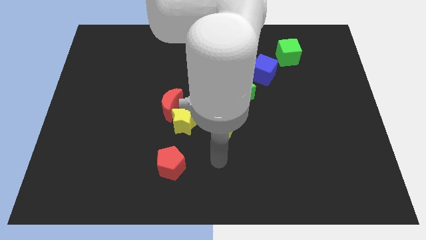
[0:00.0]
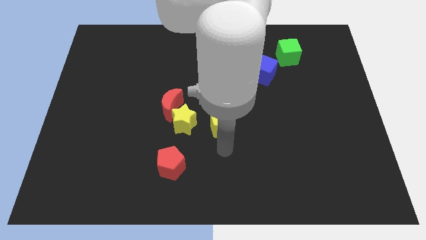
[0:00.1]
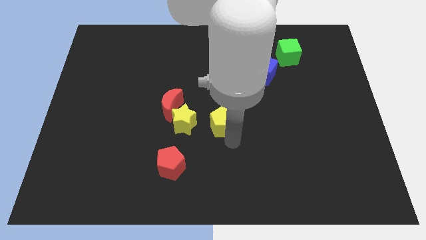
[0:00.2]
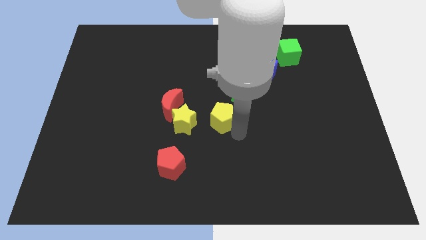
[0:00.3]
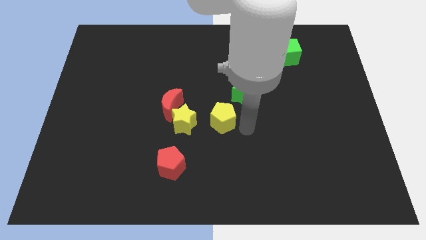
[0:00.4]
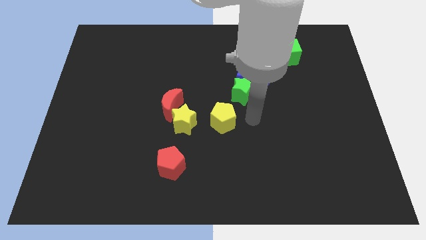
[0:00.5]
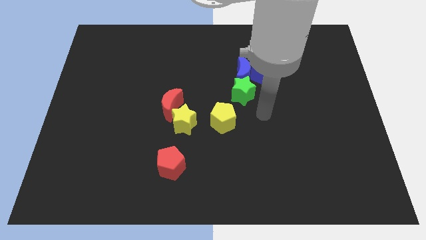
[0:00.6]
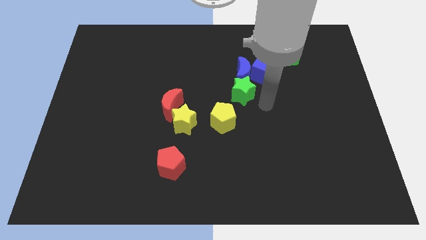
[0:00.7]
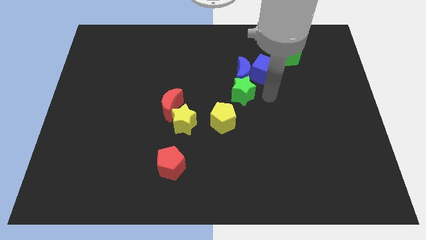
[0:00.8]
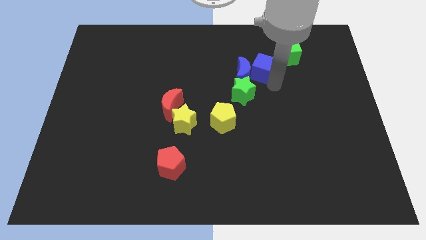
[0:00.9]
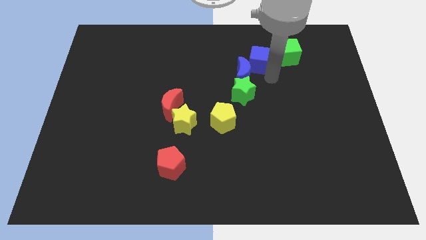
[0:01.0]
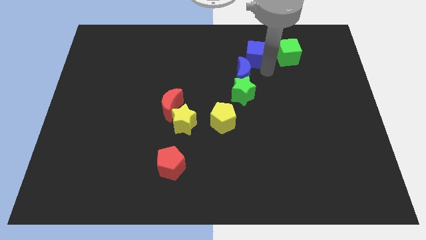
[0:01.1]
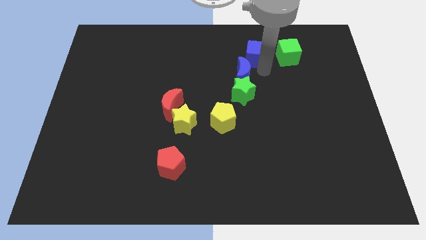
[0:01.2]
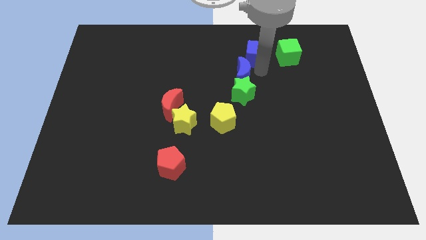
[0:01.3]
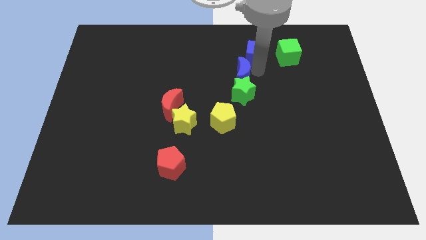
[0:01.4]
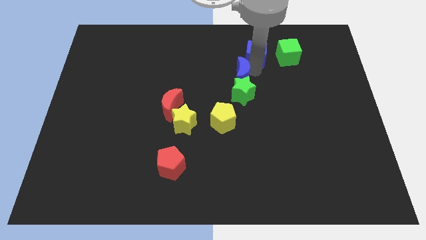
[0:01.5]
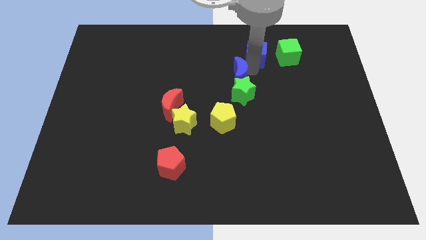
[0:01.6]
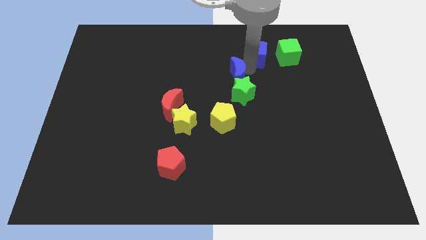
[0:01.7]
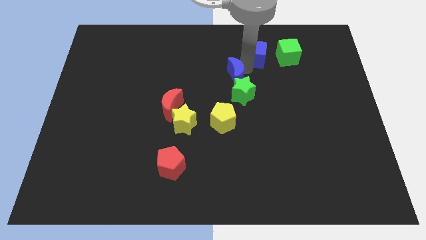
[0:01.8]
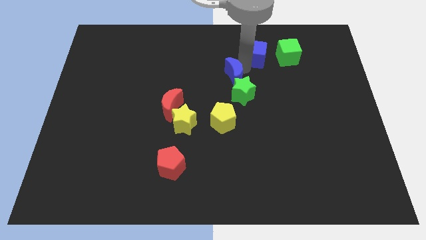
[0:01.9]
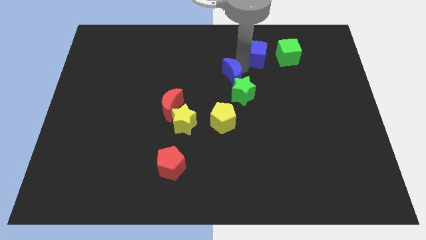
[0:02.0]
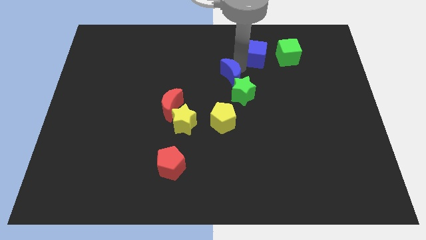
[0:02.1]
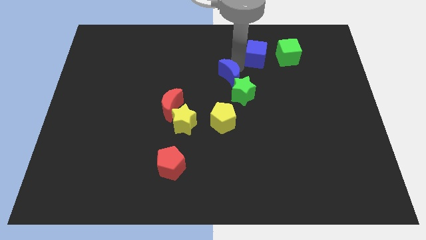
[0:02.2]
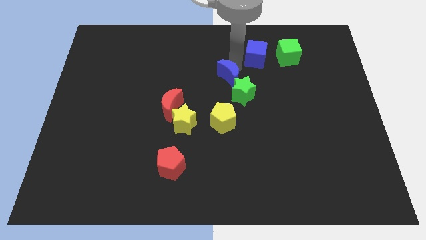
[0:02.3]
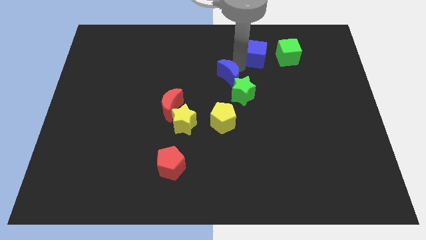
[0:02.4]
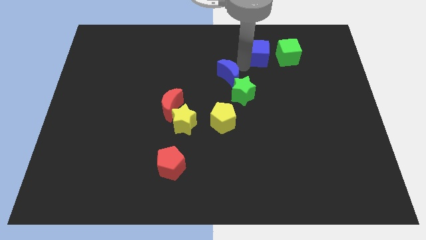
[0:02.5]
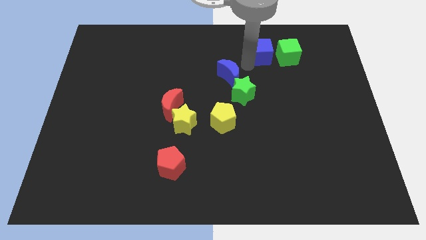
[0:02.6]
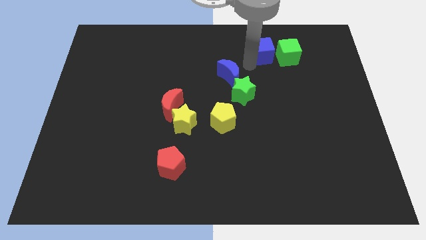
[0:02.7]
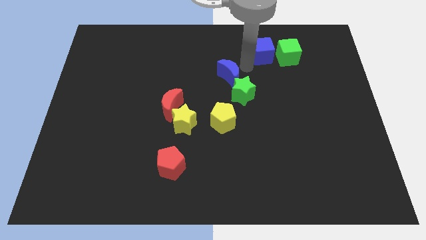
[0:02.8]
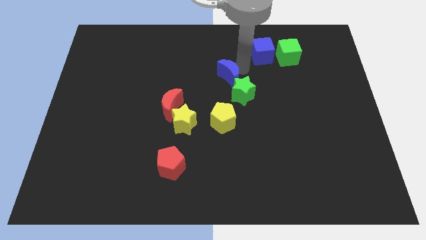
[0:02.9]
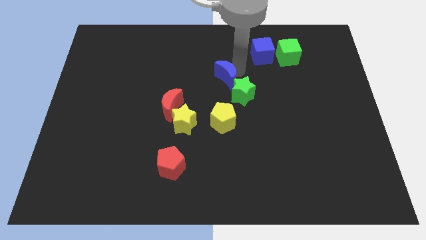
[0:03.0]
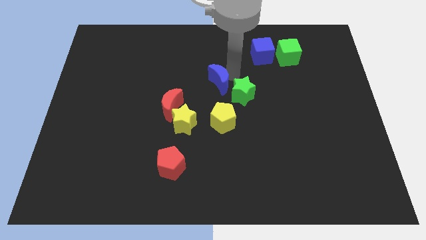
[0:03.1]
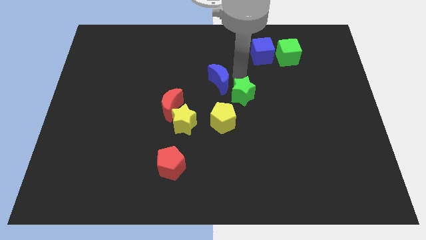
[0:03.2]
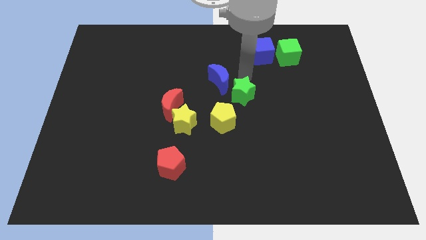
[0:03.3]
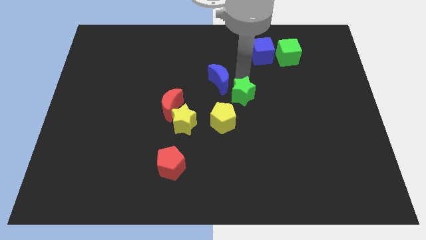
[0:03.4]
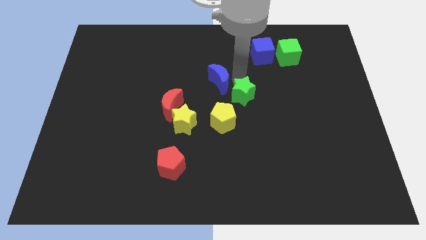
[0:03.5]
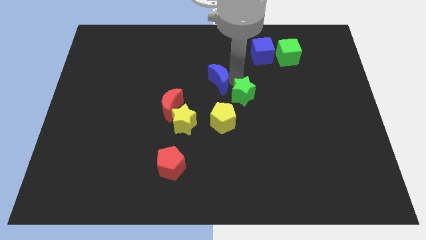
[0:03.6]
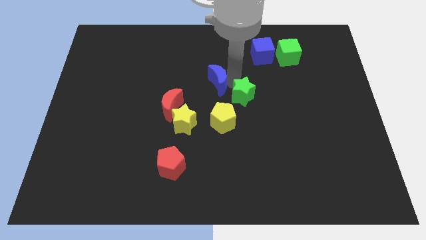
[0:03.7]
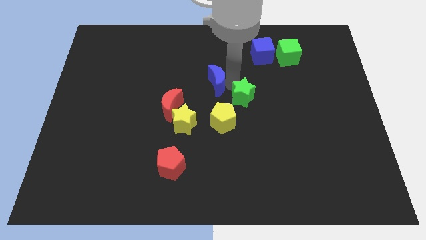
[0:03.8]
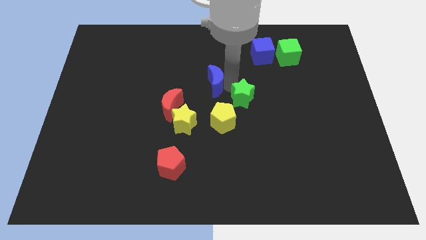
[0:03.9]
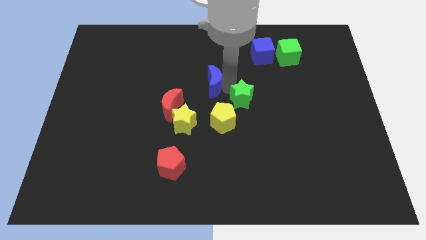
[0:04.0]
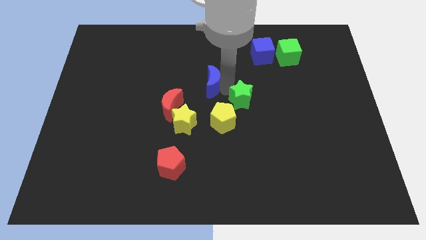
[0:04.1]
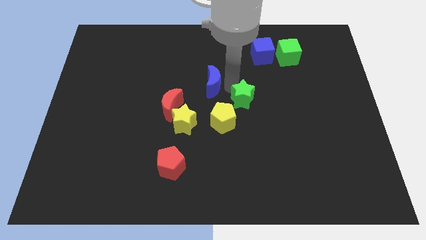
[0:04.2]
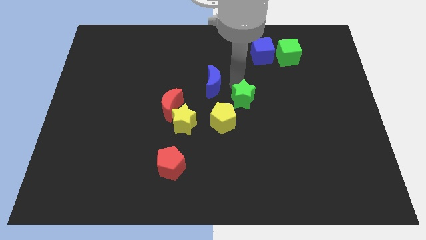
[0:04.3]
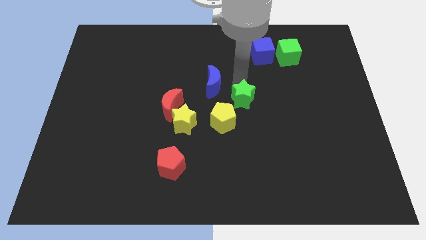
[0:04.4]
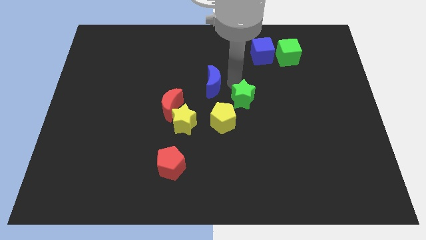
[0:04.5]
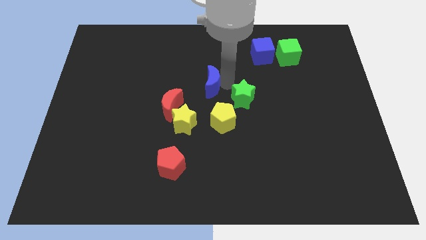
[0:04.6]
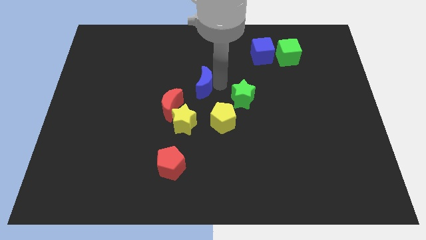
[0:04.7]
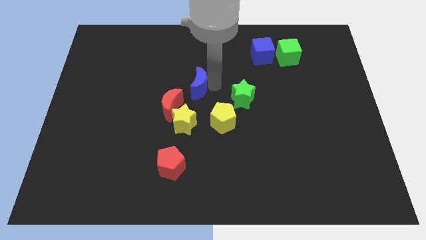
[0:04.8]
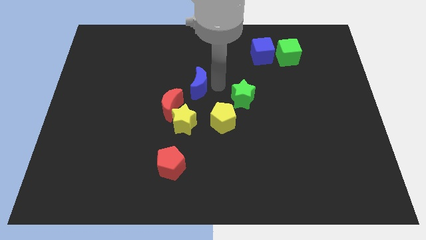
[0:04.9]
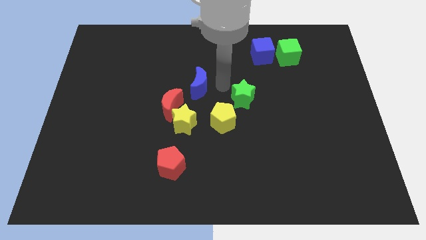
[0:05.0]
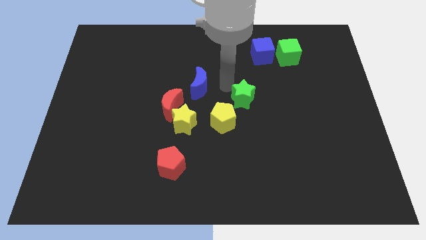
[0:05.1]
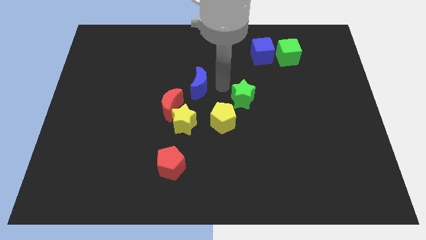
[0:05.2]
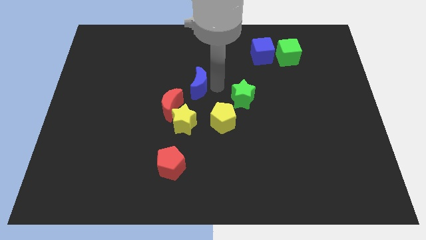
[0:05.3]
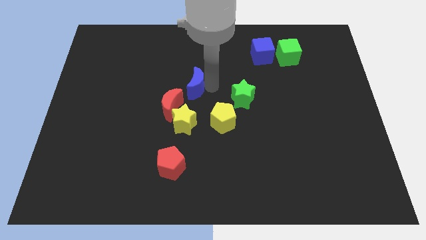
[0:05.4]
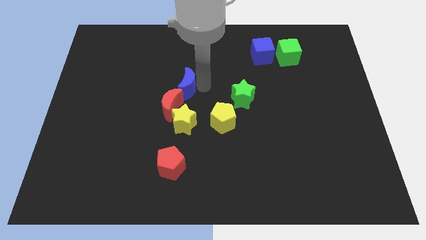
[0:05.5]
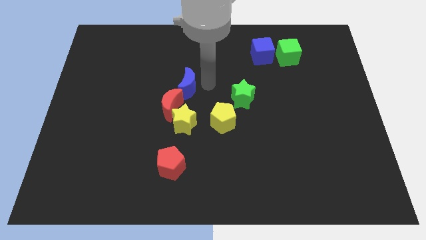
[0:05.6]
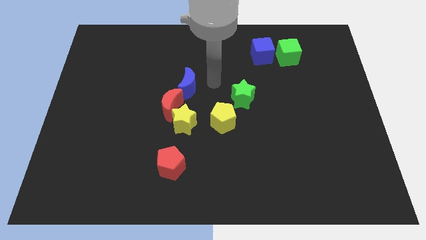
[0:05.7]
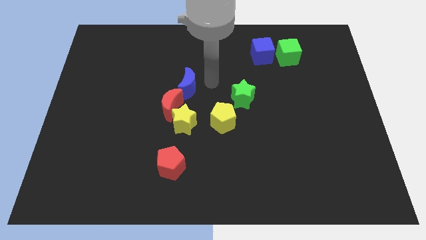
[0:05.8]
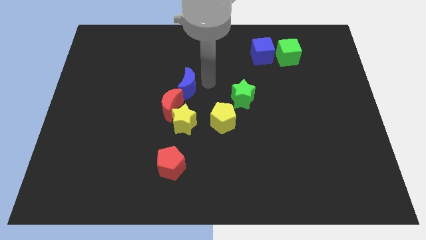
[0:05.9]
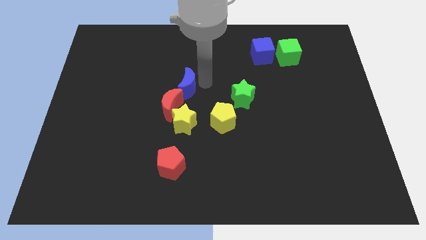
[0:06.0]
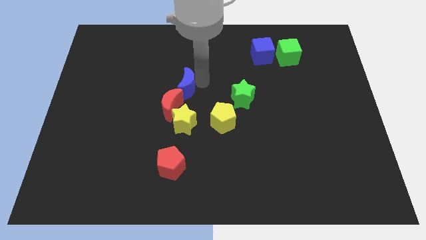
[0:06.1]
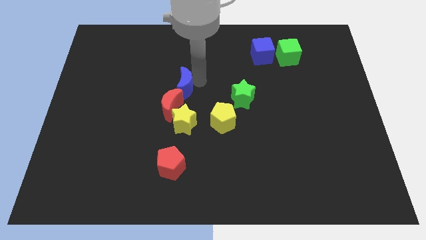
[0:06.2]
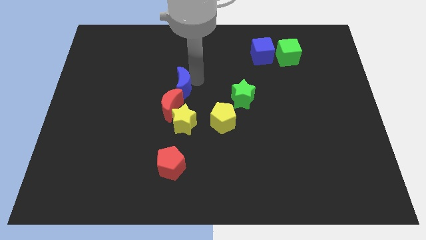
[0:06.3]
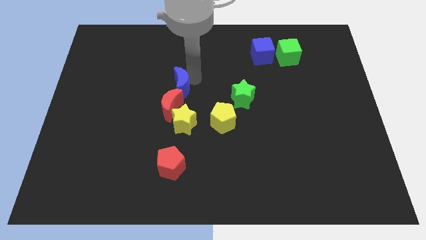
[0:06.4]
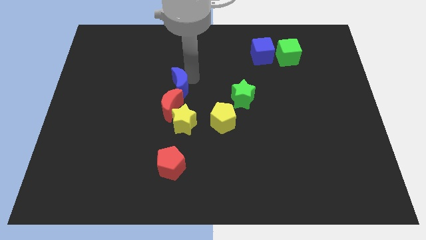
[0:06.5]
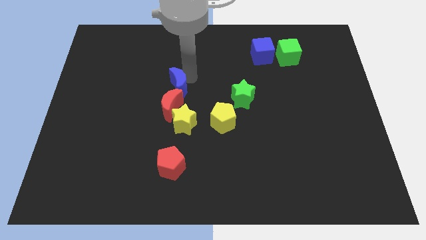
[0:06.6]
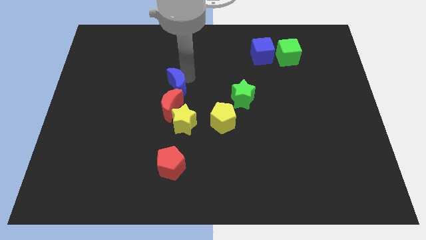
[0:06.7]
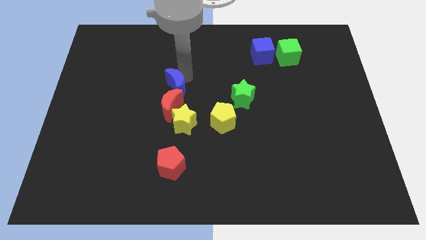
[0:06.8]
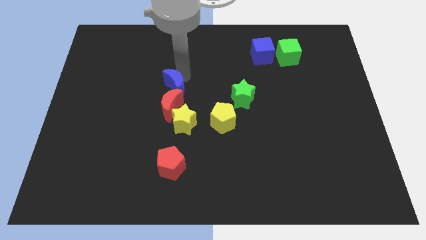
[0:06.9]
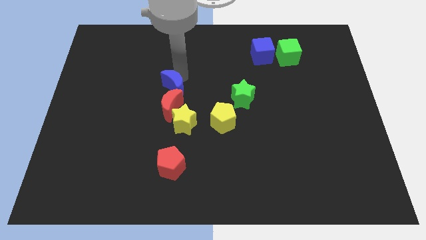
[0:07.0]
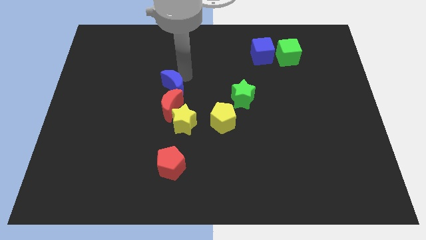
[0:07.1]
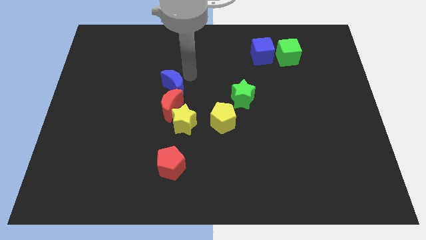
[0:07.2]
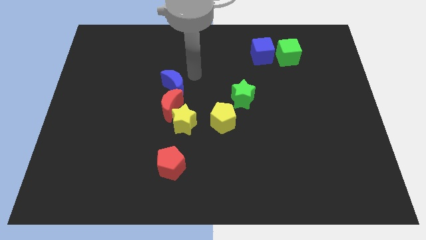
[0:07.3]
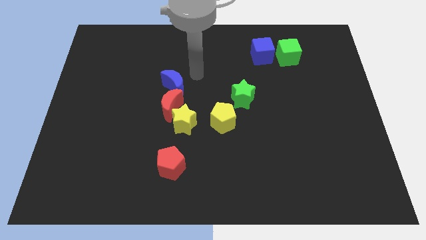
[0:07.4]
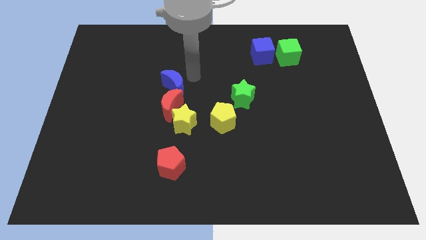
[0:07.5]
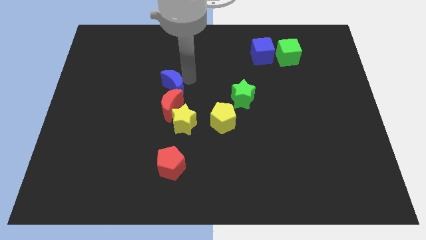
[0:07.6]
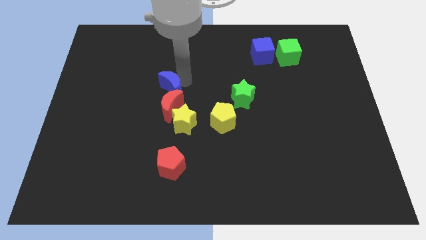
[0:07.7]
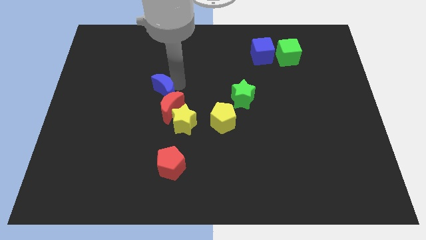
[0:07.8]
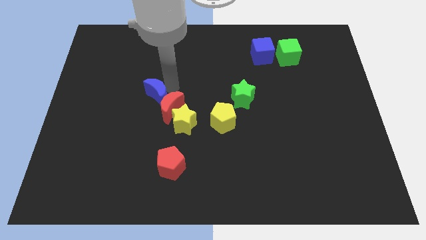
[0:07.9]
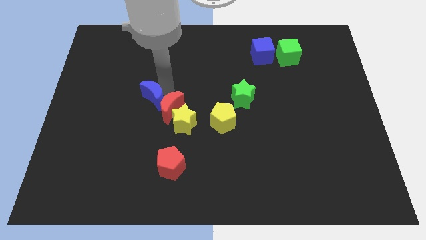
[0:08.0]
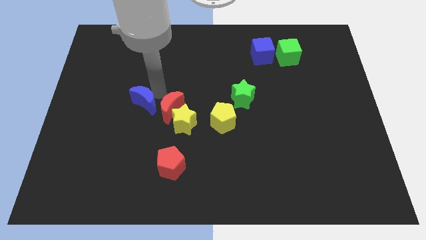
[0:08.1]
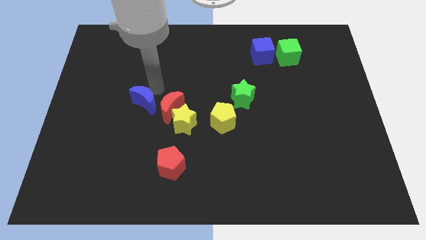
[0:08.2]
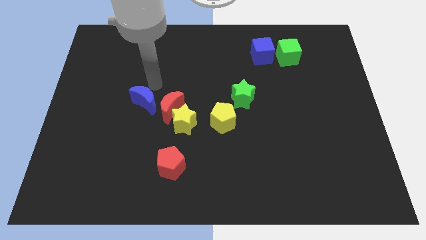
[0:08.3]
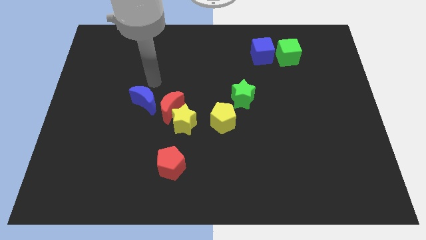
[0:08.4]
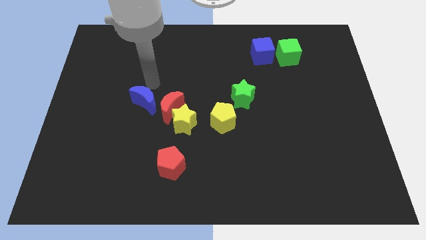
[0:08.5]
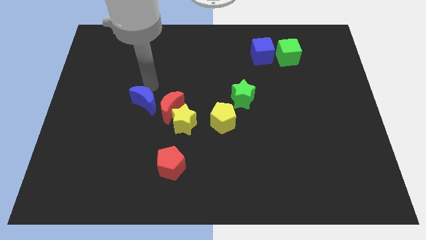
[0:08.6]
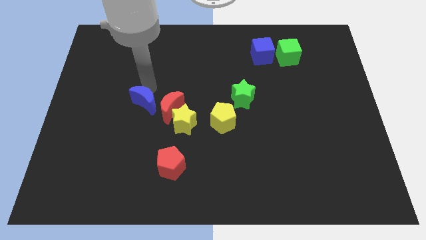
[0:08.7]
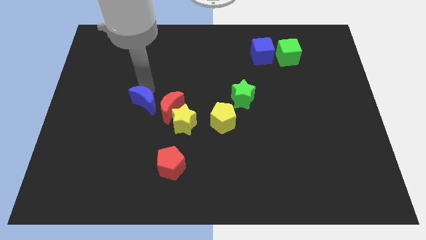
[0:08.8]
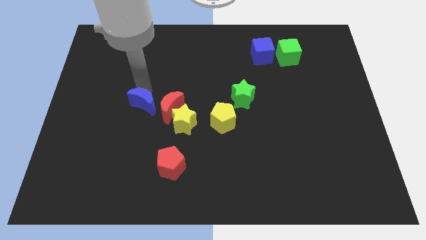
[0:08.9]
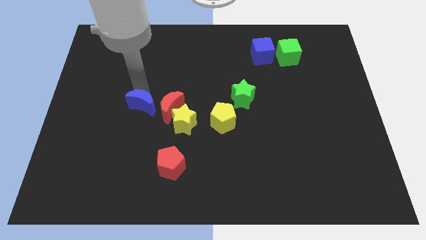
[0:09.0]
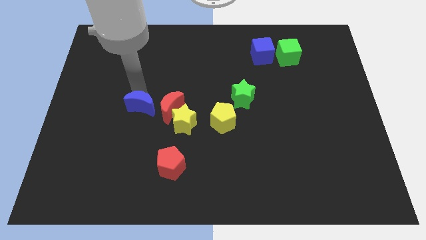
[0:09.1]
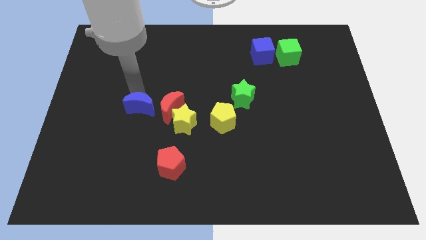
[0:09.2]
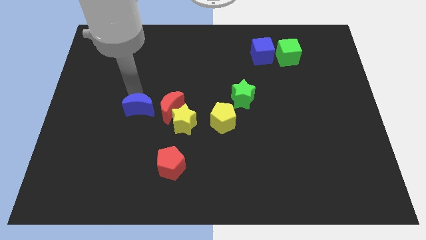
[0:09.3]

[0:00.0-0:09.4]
push the blue moon downwards and to the left
